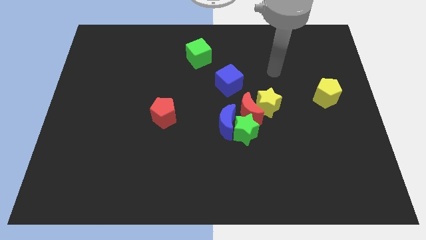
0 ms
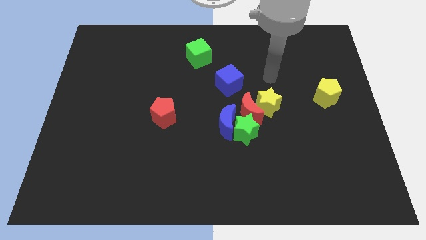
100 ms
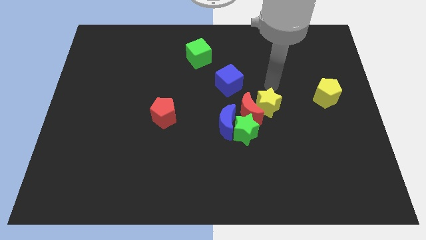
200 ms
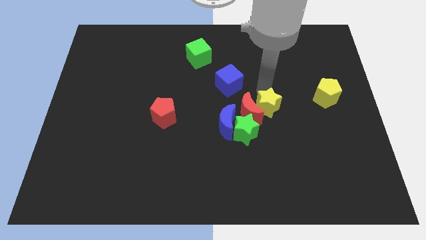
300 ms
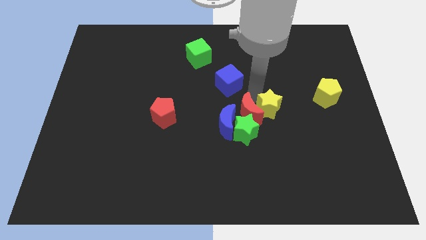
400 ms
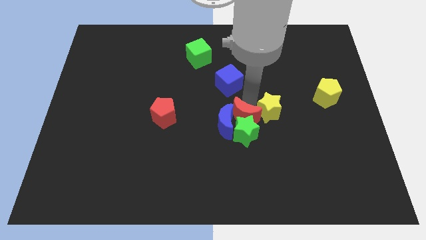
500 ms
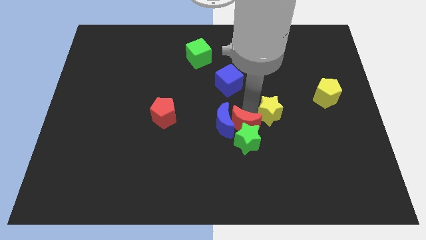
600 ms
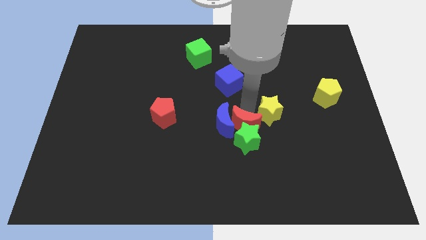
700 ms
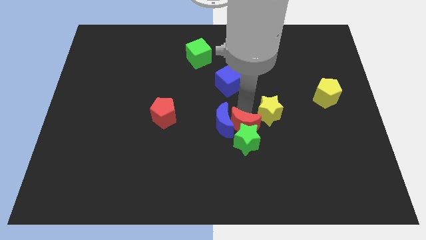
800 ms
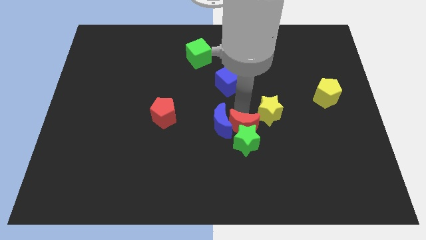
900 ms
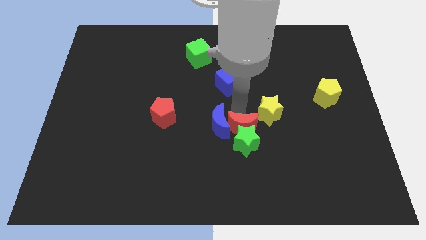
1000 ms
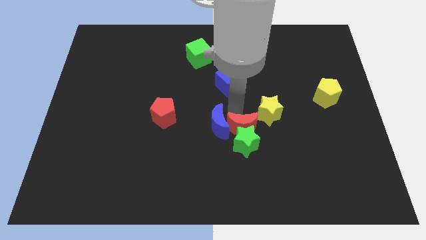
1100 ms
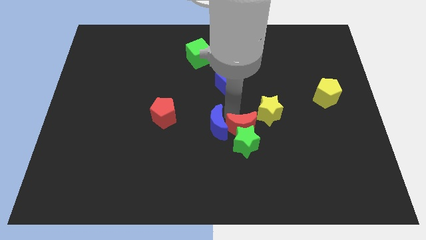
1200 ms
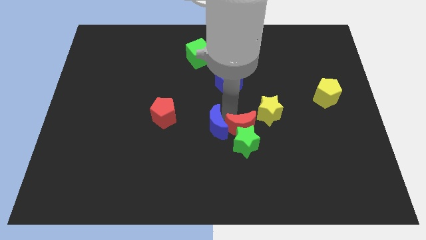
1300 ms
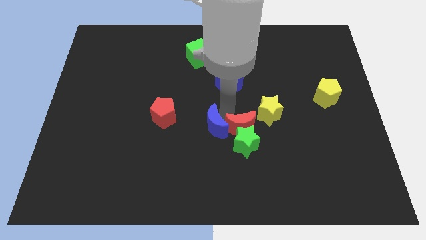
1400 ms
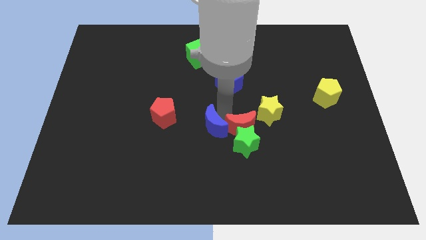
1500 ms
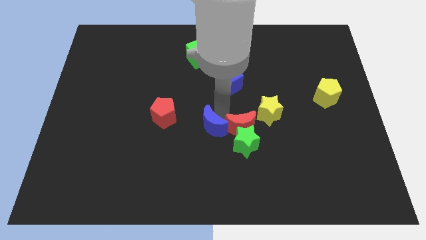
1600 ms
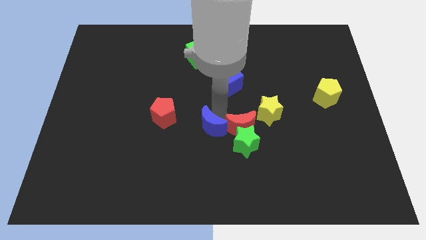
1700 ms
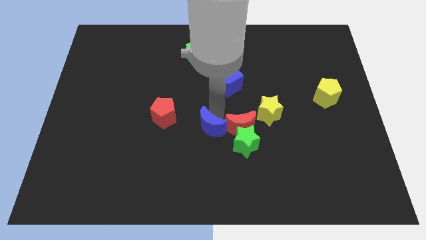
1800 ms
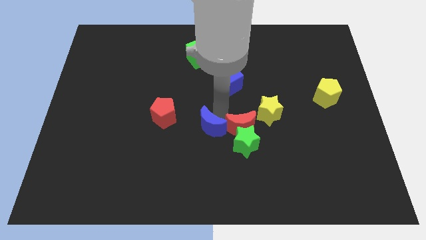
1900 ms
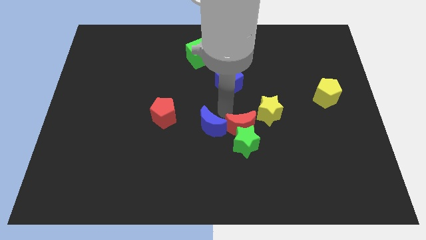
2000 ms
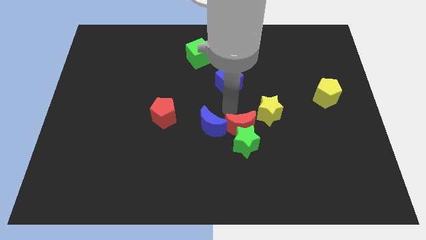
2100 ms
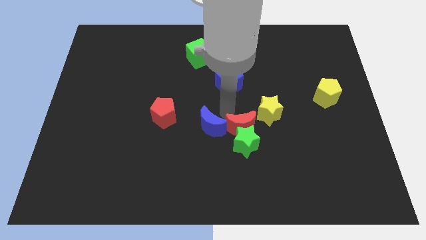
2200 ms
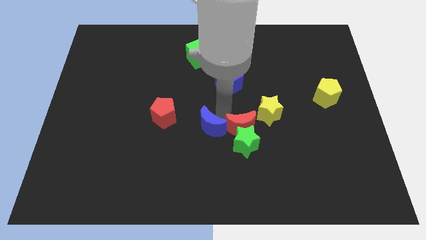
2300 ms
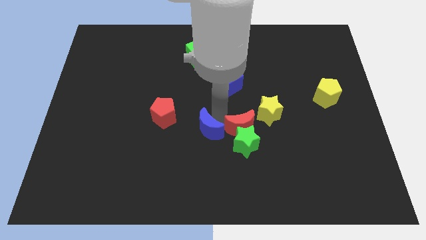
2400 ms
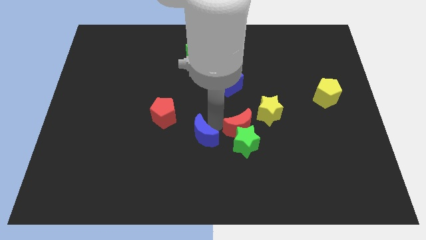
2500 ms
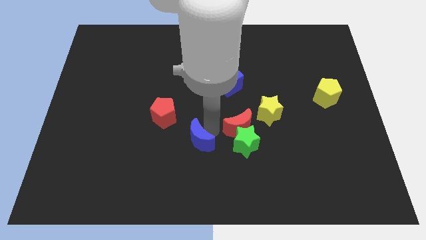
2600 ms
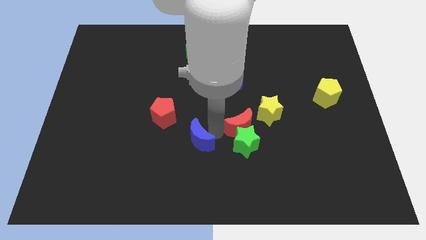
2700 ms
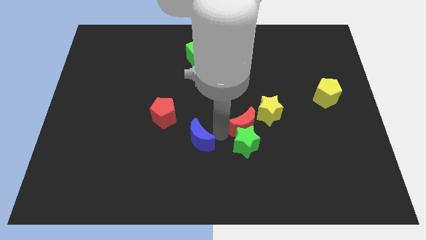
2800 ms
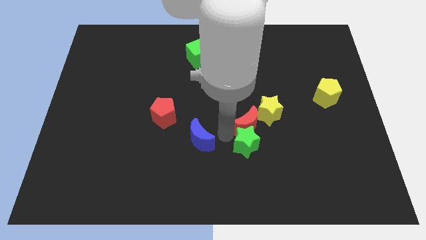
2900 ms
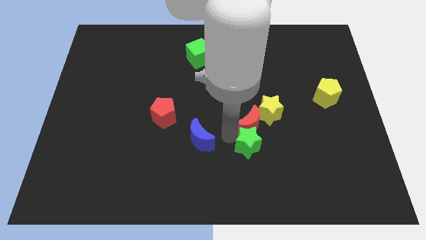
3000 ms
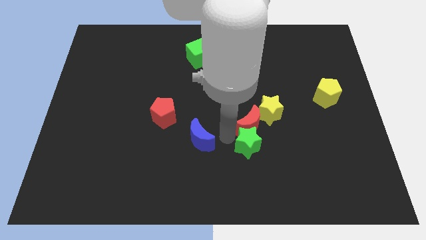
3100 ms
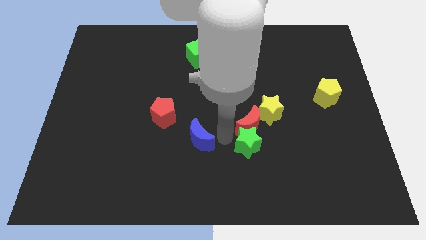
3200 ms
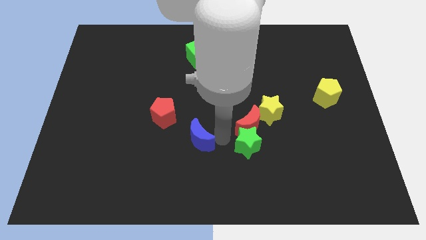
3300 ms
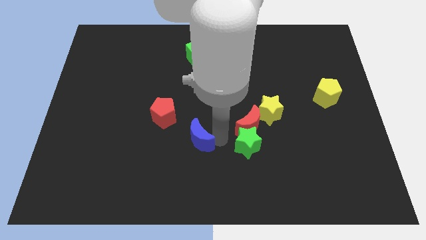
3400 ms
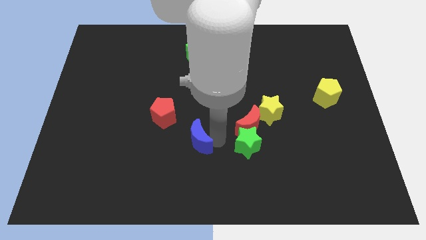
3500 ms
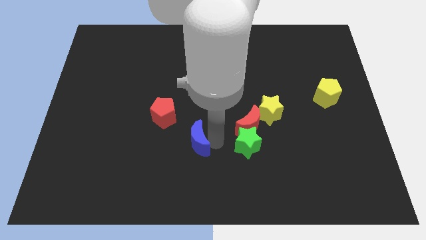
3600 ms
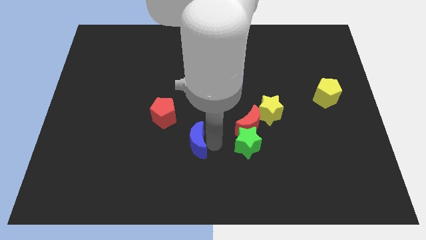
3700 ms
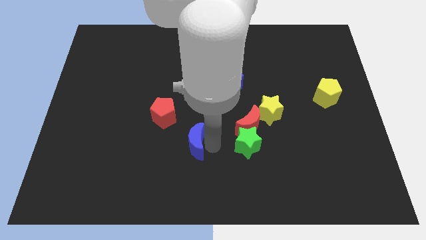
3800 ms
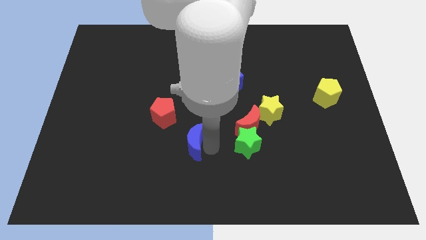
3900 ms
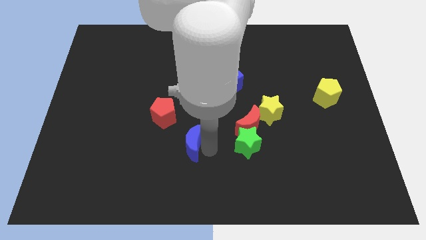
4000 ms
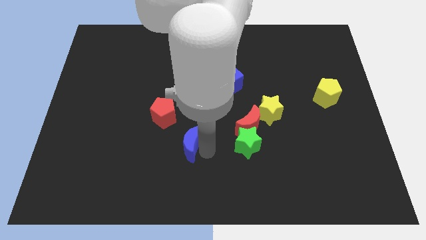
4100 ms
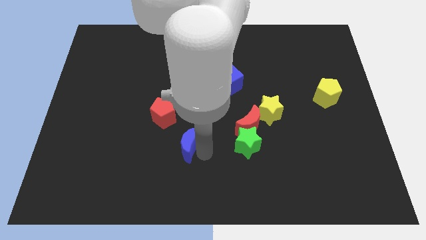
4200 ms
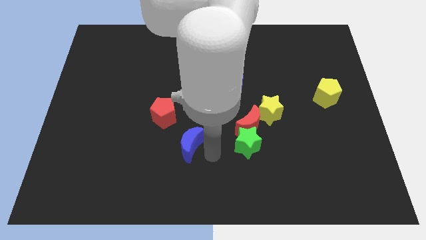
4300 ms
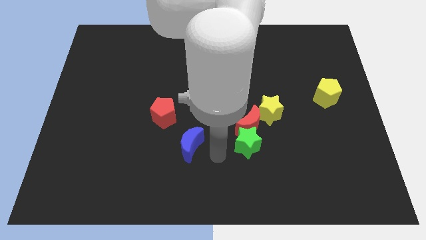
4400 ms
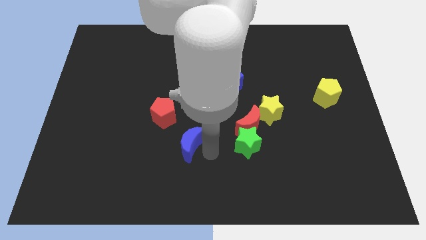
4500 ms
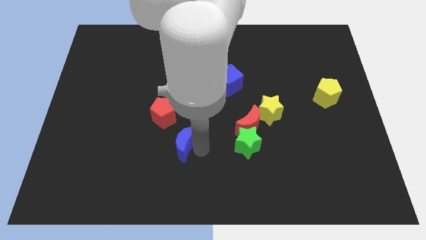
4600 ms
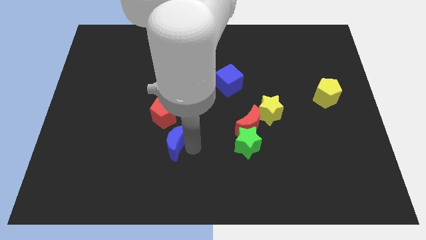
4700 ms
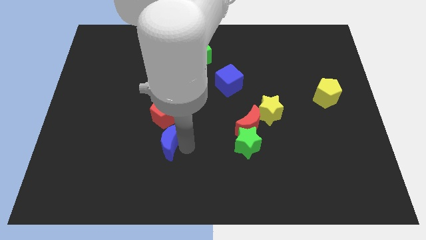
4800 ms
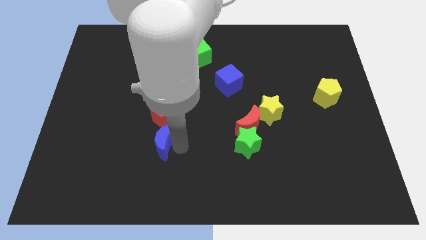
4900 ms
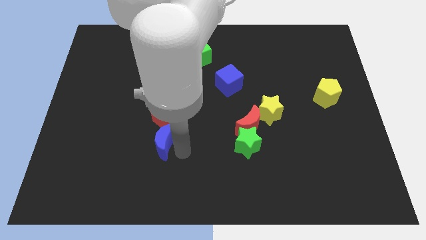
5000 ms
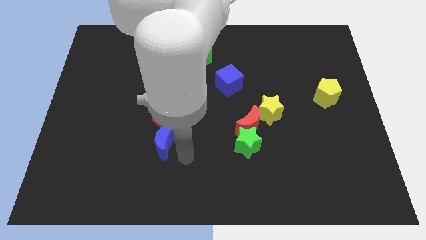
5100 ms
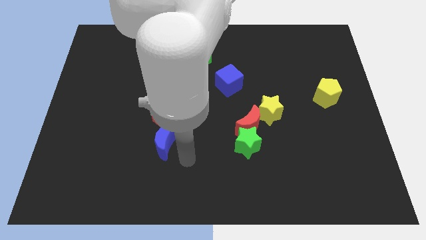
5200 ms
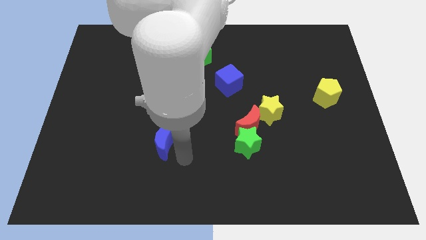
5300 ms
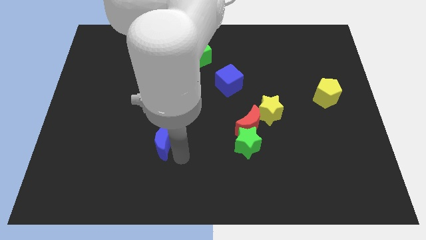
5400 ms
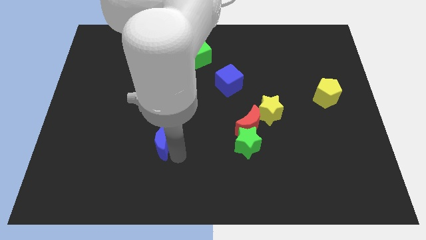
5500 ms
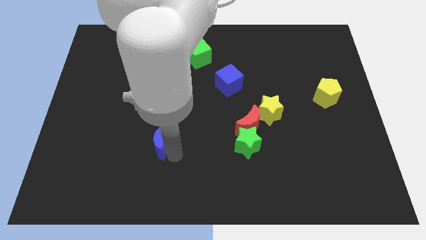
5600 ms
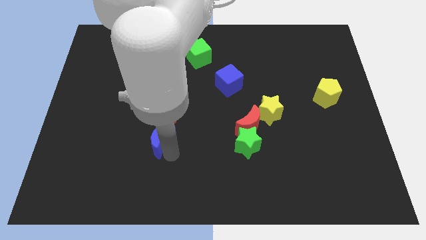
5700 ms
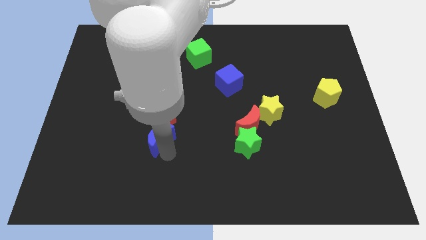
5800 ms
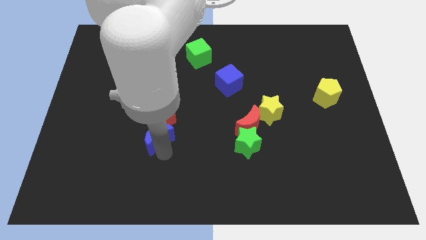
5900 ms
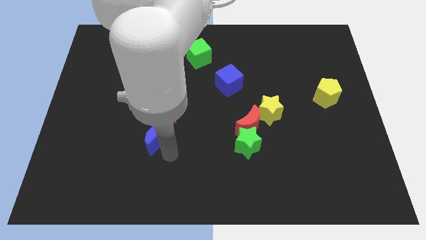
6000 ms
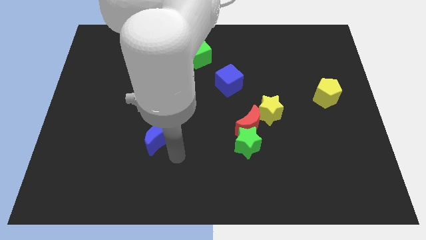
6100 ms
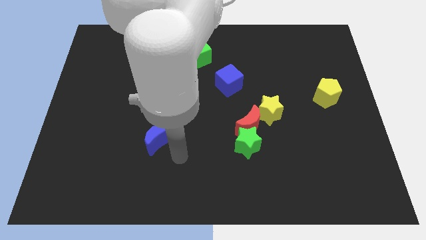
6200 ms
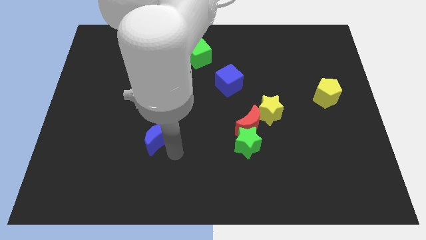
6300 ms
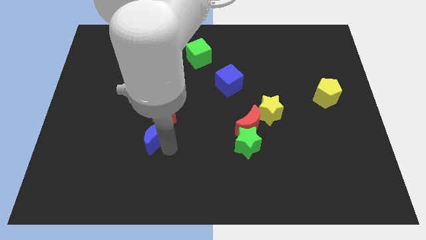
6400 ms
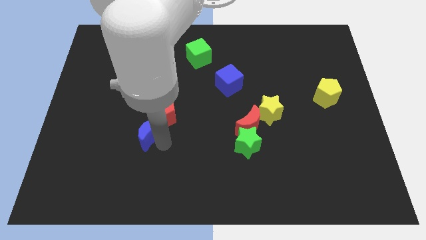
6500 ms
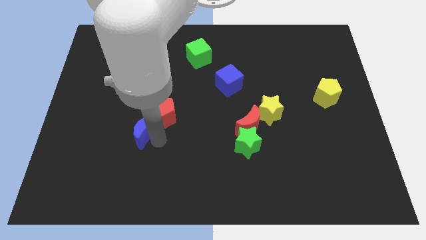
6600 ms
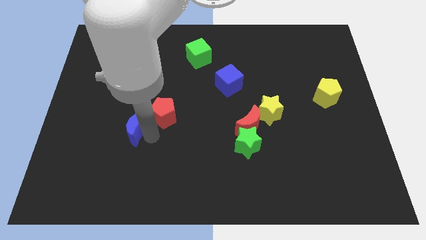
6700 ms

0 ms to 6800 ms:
move the blue moon left of the red pentagon
